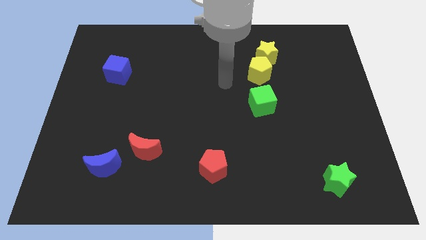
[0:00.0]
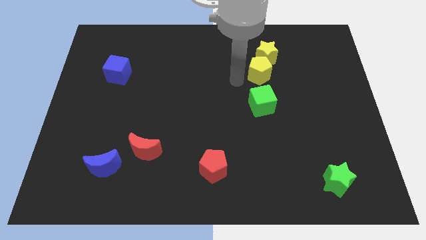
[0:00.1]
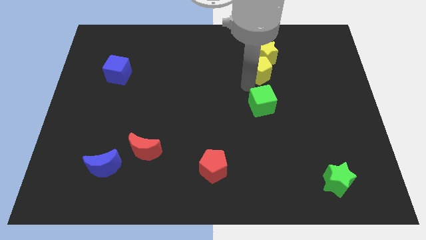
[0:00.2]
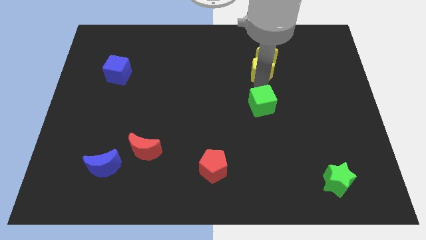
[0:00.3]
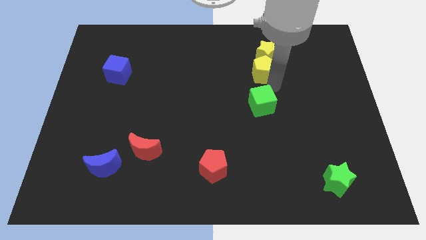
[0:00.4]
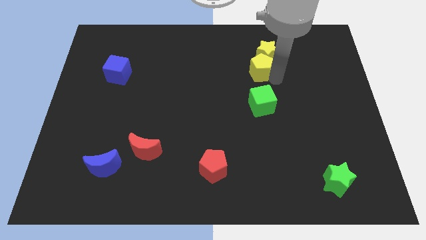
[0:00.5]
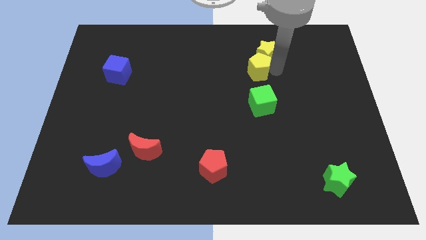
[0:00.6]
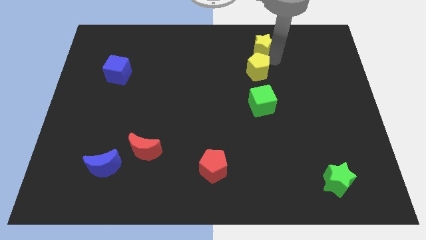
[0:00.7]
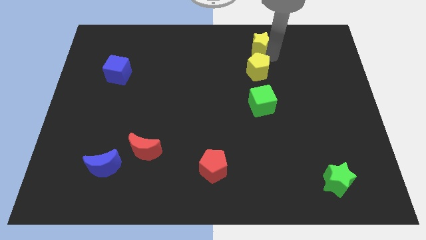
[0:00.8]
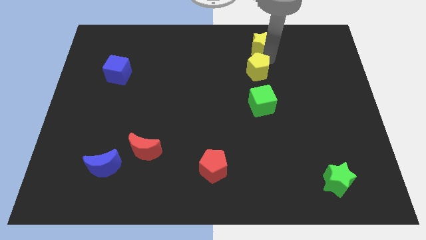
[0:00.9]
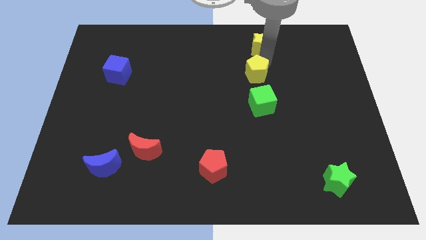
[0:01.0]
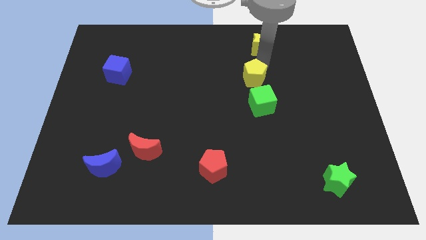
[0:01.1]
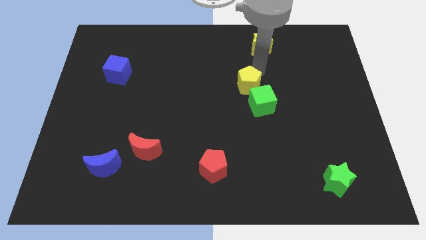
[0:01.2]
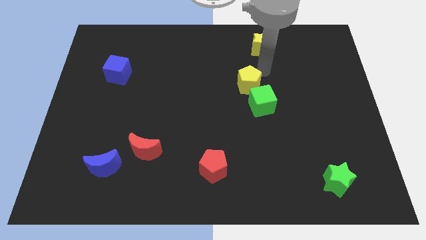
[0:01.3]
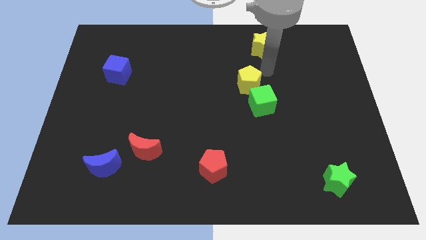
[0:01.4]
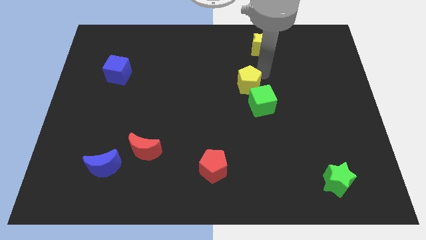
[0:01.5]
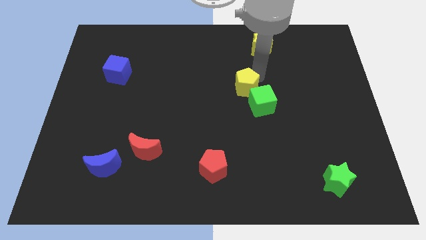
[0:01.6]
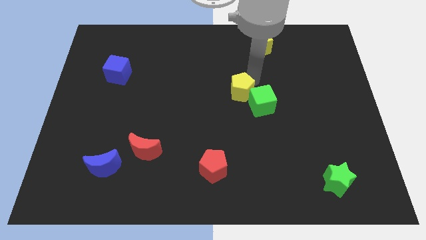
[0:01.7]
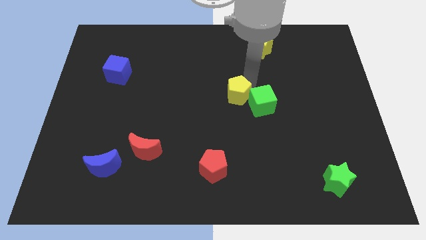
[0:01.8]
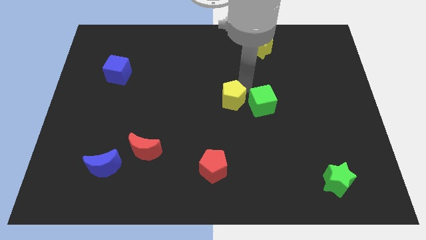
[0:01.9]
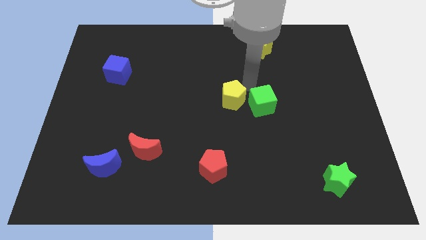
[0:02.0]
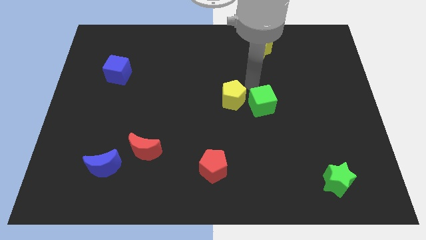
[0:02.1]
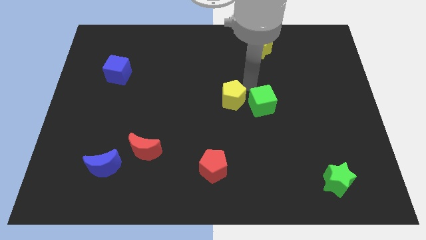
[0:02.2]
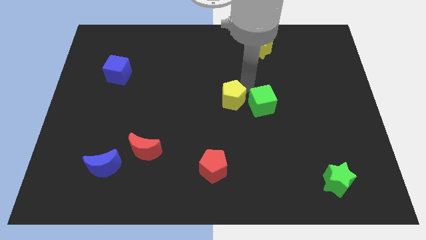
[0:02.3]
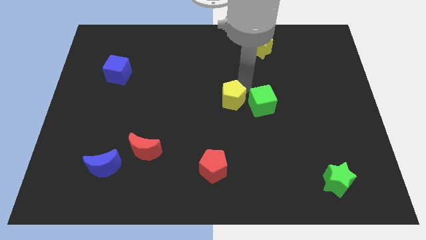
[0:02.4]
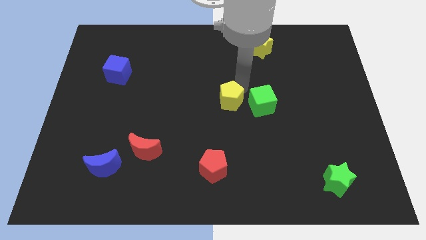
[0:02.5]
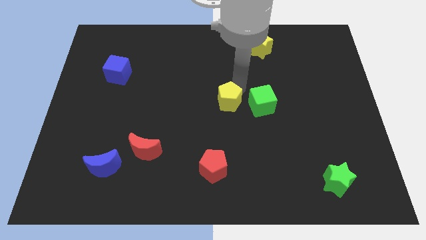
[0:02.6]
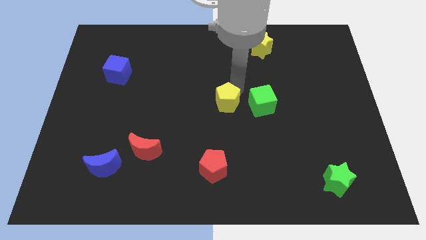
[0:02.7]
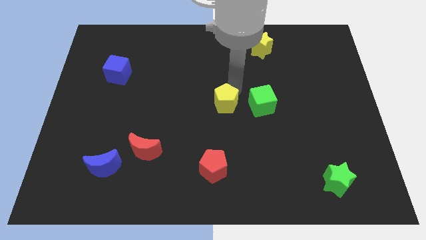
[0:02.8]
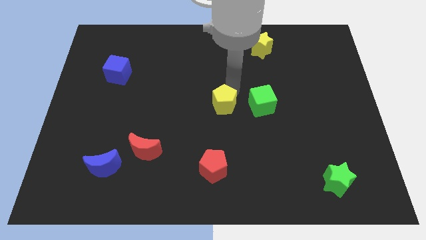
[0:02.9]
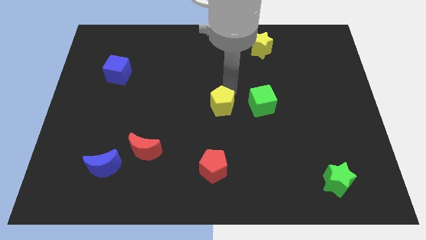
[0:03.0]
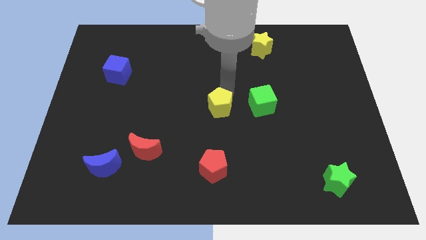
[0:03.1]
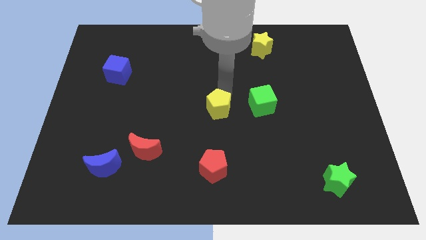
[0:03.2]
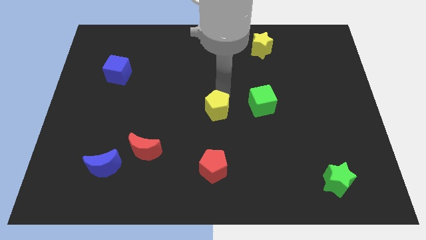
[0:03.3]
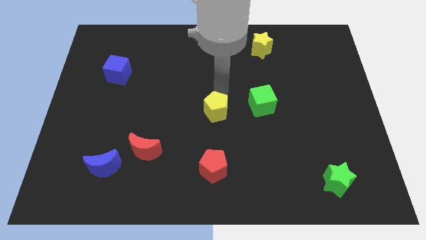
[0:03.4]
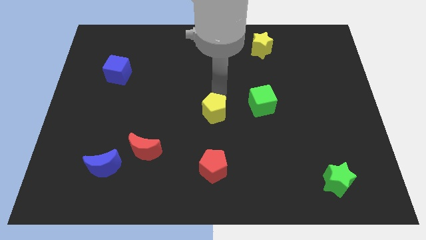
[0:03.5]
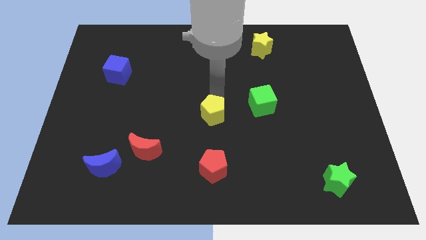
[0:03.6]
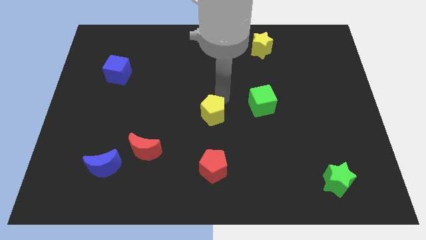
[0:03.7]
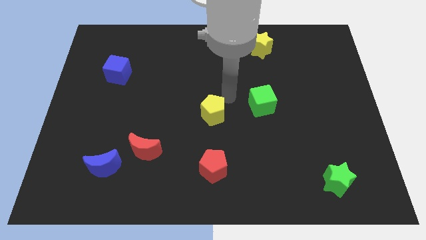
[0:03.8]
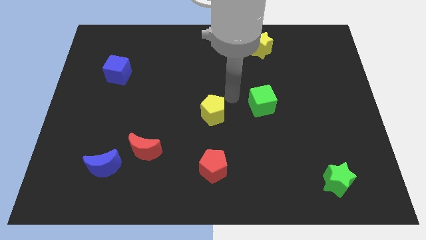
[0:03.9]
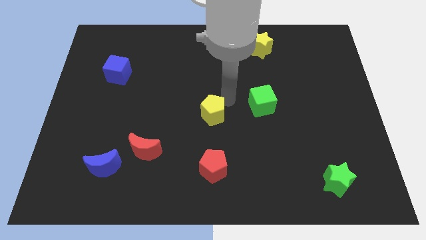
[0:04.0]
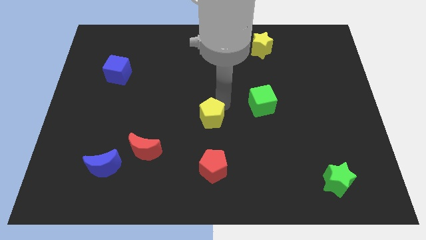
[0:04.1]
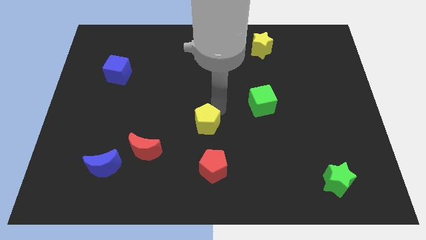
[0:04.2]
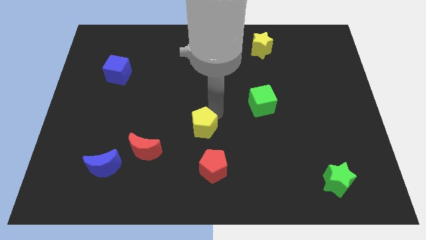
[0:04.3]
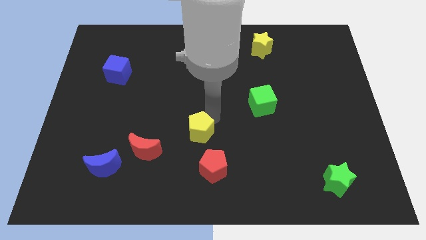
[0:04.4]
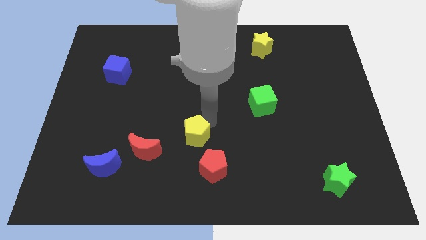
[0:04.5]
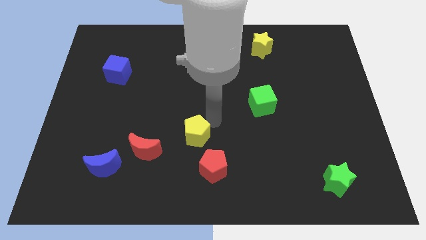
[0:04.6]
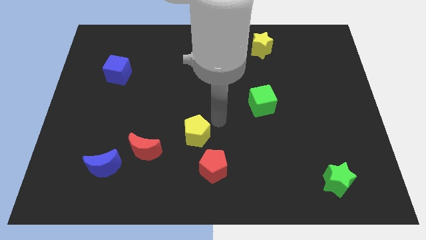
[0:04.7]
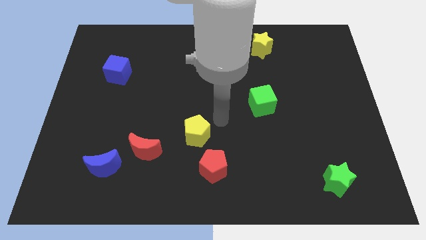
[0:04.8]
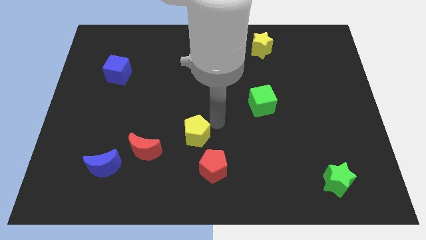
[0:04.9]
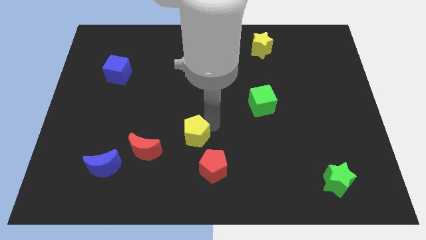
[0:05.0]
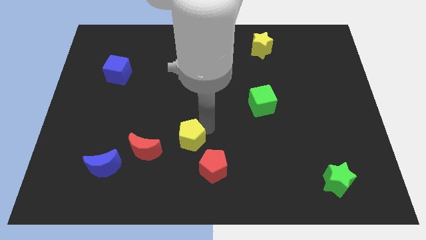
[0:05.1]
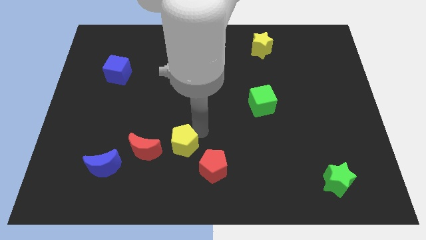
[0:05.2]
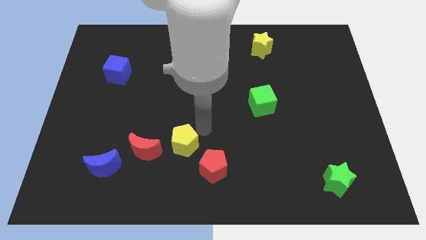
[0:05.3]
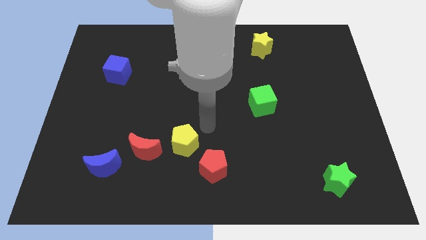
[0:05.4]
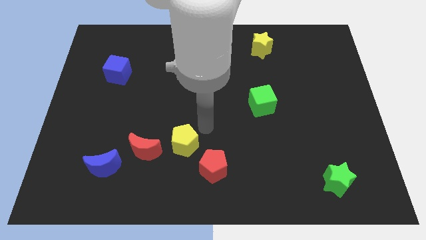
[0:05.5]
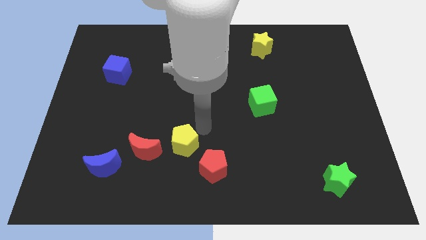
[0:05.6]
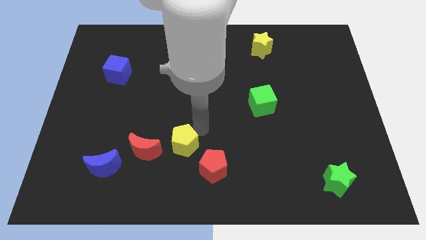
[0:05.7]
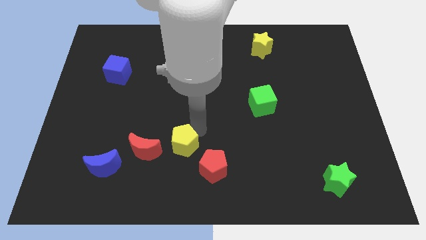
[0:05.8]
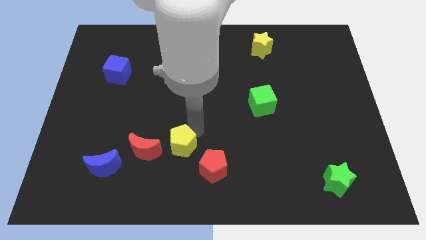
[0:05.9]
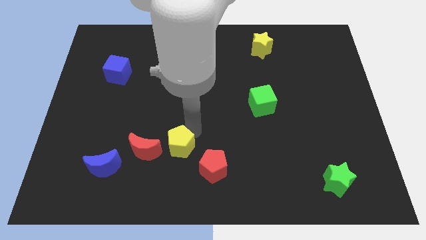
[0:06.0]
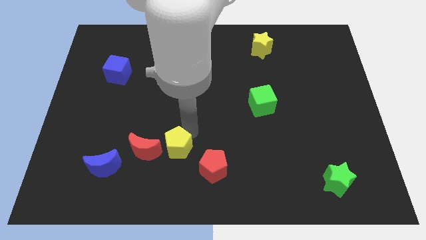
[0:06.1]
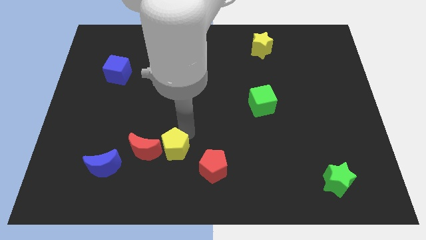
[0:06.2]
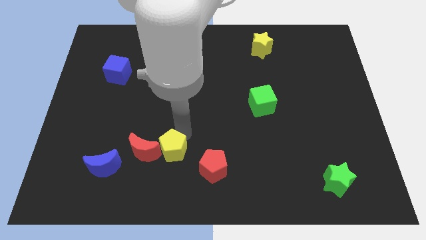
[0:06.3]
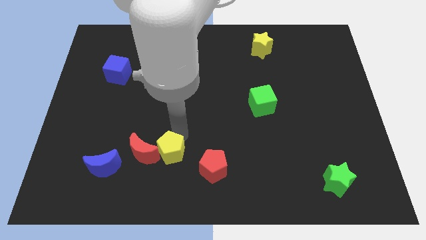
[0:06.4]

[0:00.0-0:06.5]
put the yellow pentagon to the right side of the blue moon

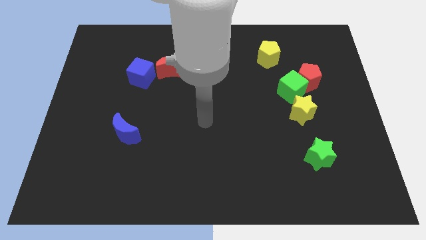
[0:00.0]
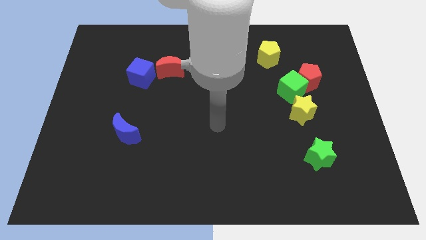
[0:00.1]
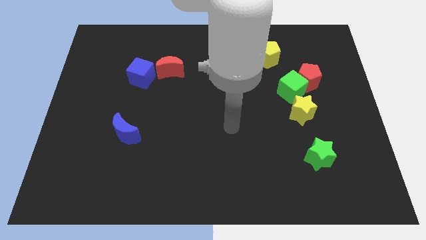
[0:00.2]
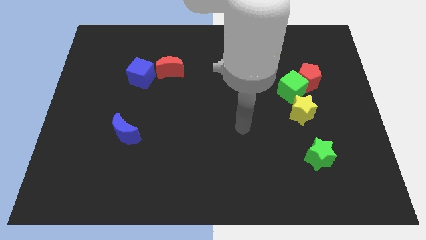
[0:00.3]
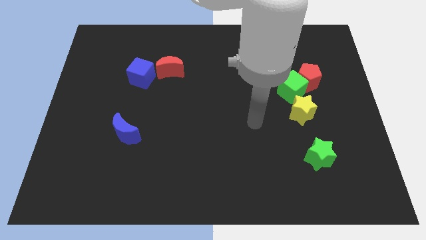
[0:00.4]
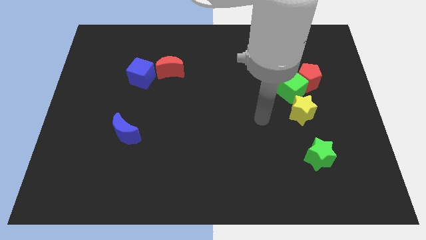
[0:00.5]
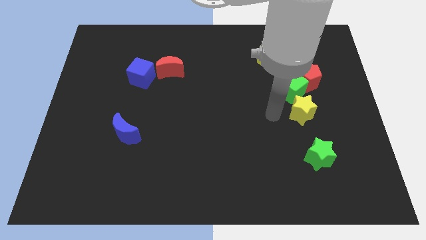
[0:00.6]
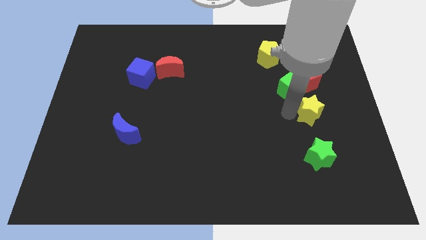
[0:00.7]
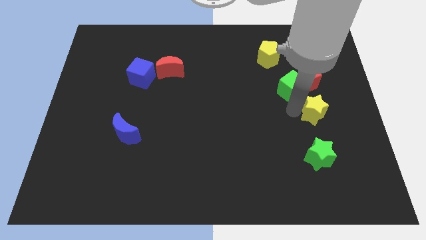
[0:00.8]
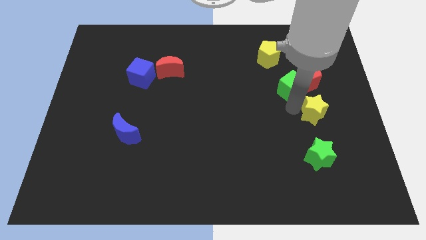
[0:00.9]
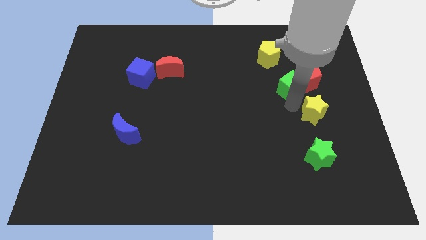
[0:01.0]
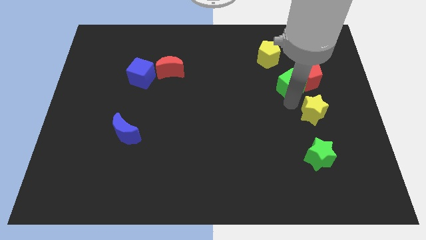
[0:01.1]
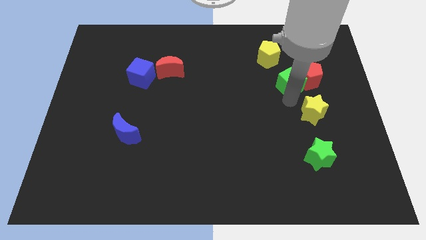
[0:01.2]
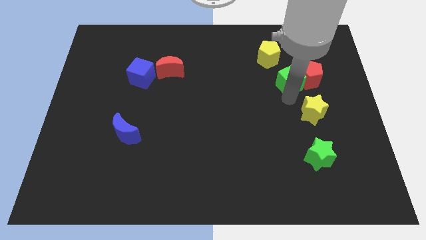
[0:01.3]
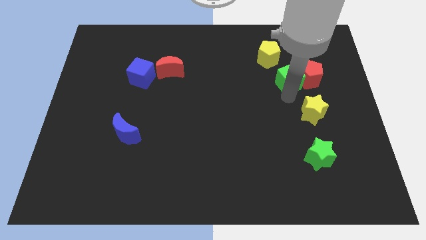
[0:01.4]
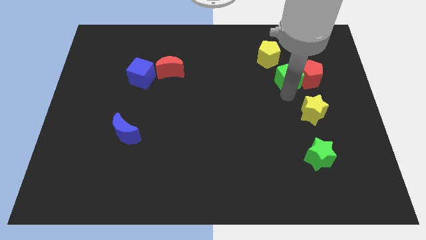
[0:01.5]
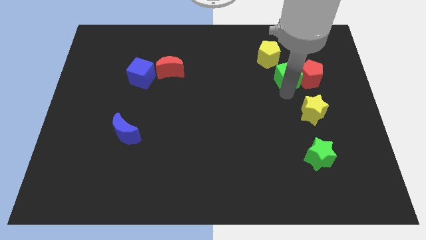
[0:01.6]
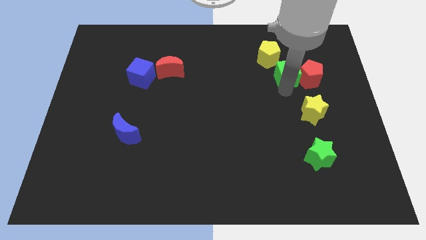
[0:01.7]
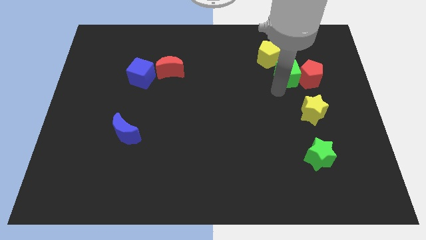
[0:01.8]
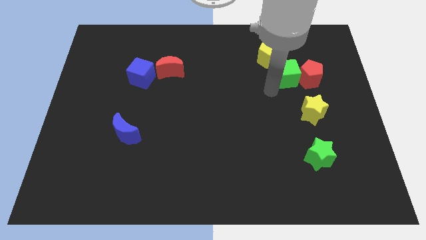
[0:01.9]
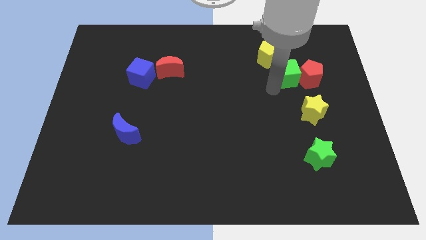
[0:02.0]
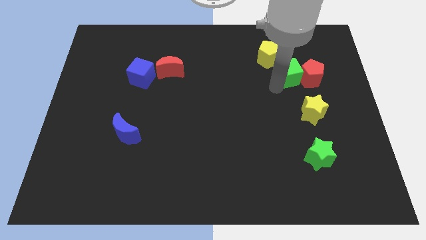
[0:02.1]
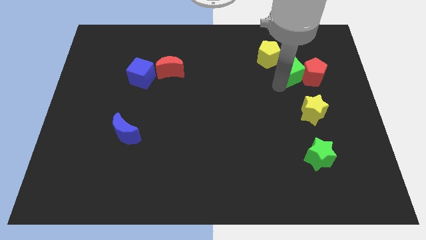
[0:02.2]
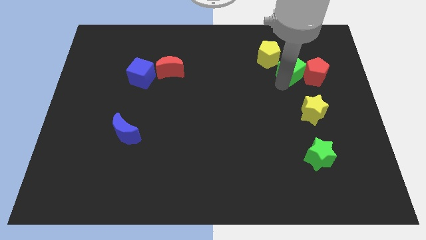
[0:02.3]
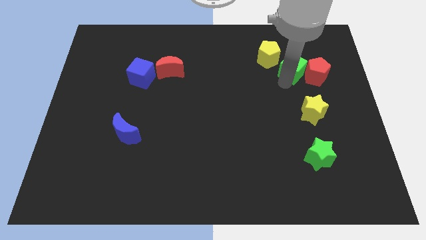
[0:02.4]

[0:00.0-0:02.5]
move the green cube to the right side of the yellow pentagon
